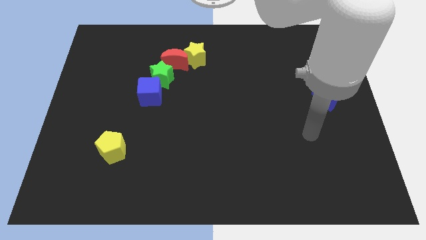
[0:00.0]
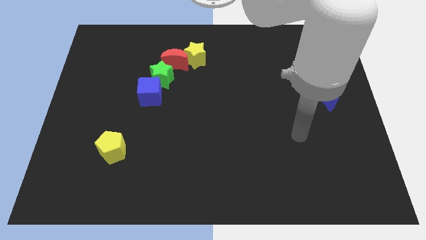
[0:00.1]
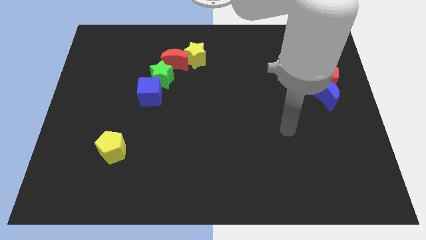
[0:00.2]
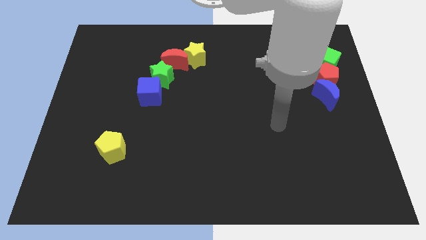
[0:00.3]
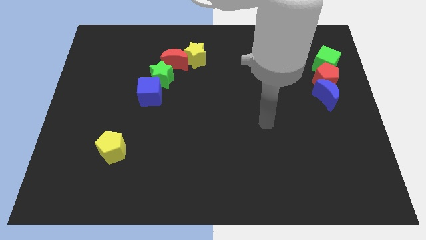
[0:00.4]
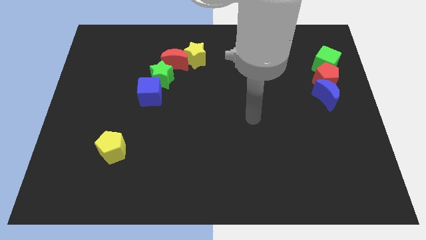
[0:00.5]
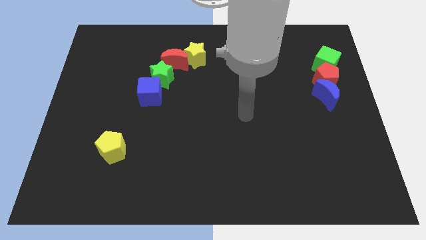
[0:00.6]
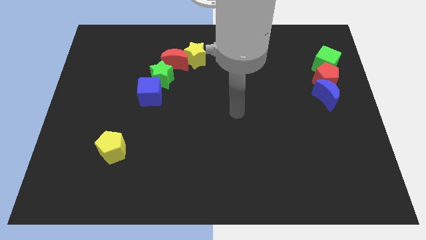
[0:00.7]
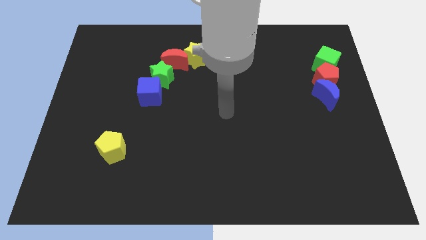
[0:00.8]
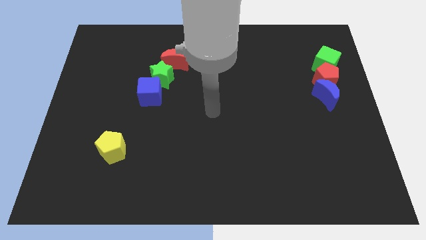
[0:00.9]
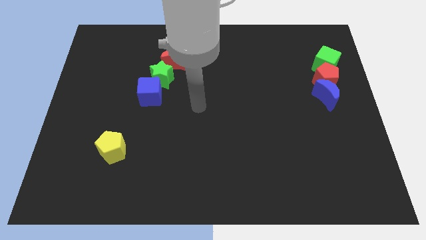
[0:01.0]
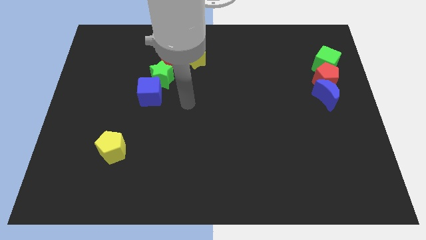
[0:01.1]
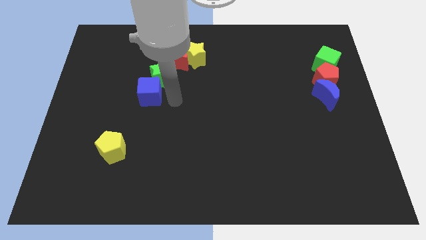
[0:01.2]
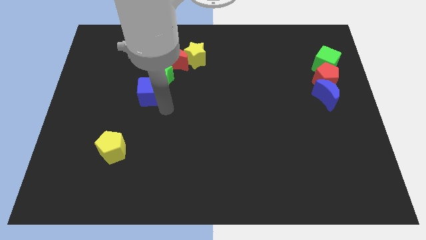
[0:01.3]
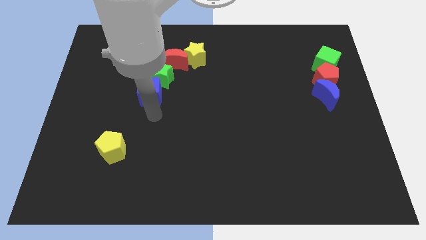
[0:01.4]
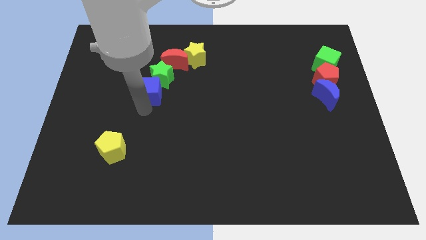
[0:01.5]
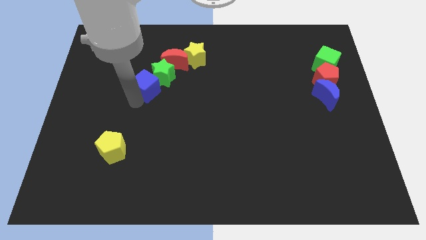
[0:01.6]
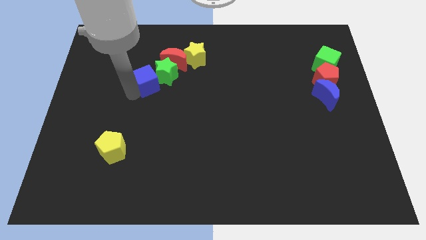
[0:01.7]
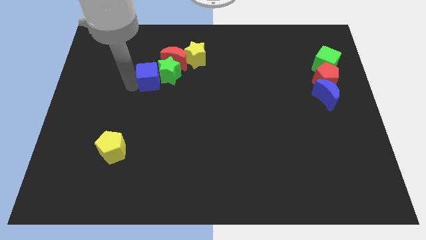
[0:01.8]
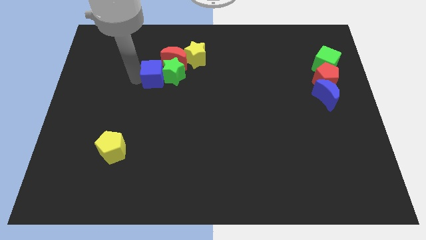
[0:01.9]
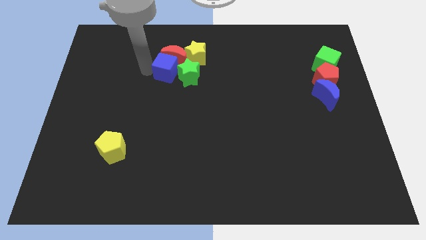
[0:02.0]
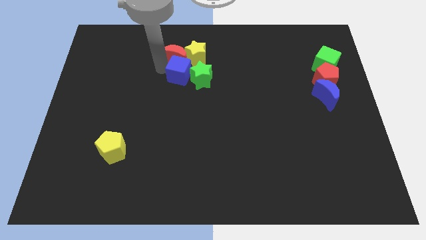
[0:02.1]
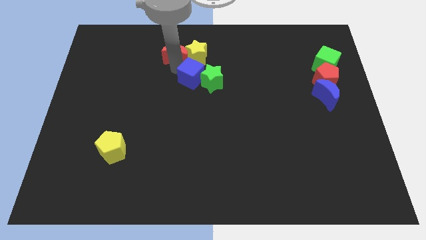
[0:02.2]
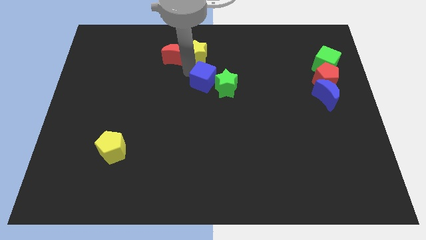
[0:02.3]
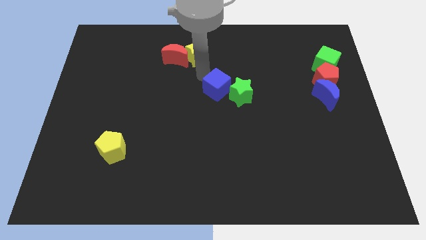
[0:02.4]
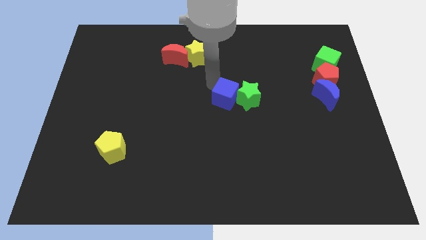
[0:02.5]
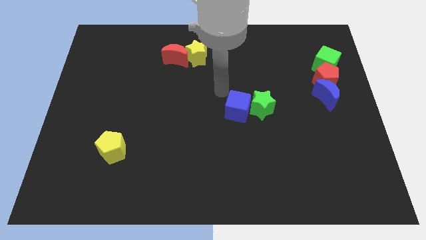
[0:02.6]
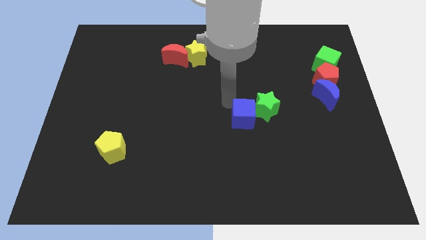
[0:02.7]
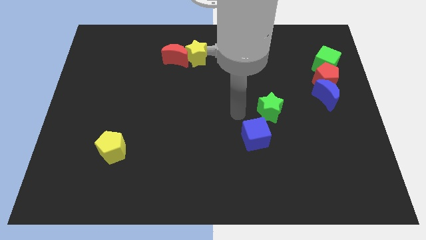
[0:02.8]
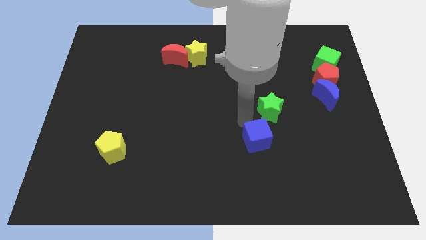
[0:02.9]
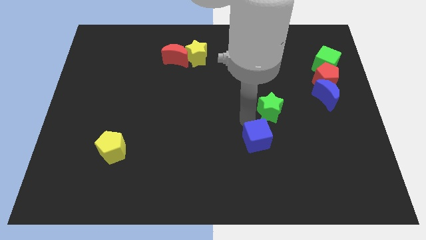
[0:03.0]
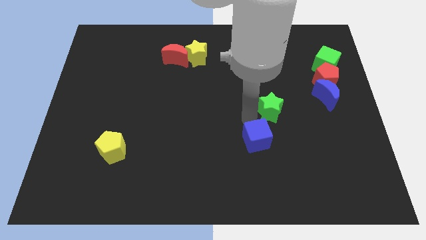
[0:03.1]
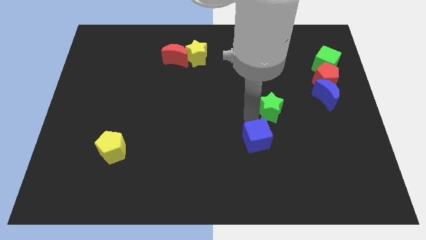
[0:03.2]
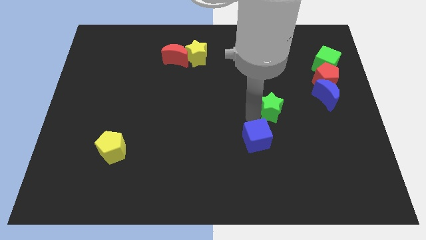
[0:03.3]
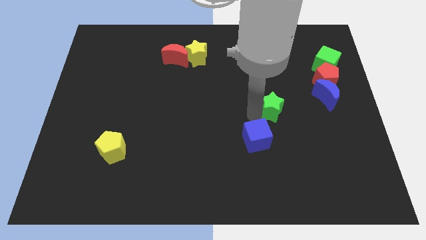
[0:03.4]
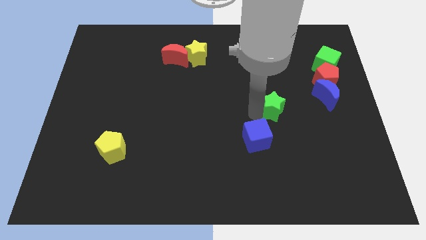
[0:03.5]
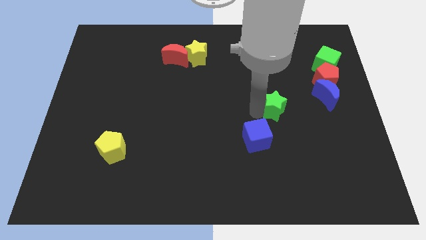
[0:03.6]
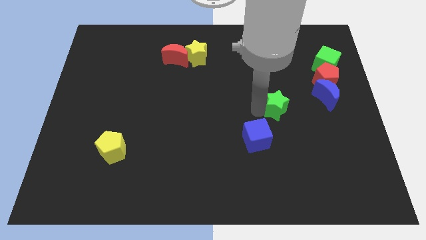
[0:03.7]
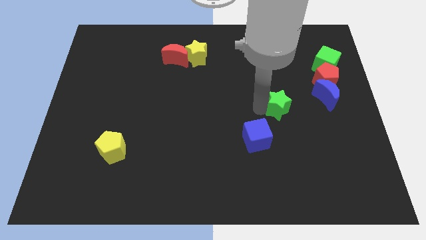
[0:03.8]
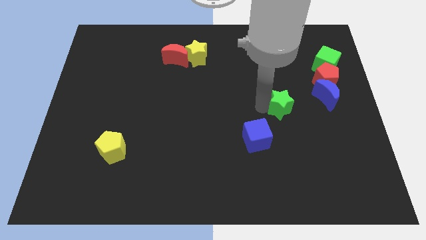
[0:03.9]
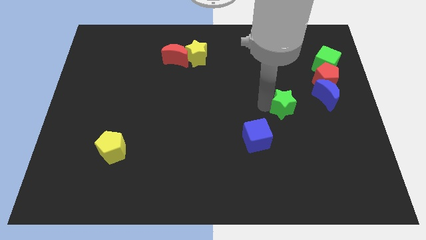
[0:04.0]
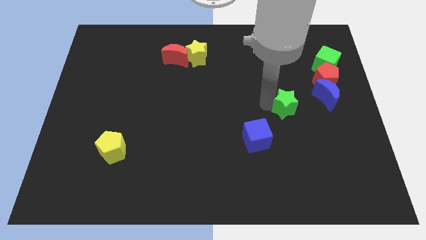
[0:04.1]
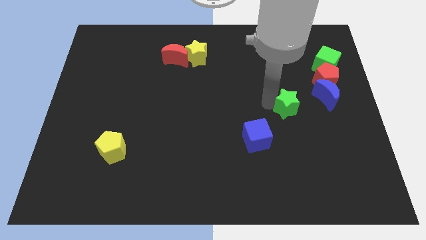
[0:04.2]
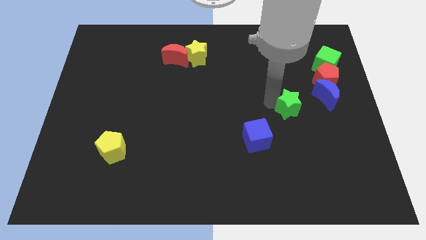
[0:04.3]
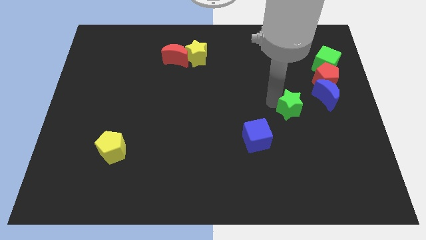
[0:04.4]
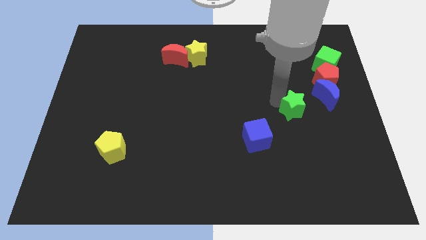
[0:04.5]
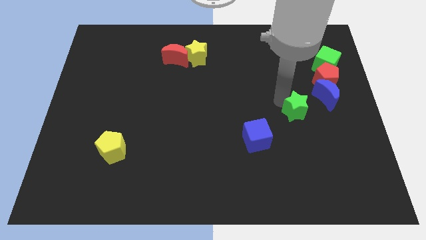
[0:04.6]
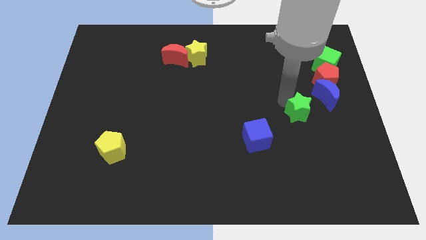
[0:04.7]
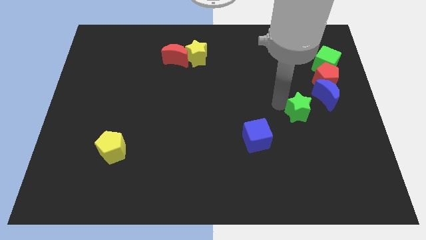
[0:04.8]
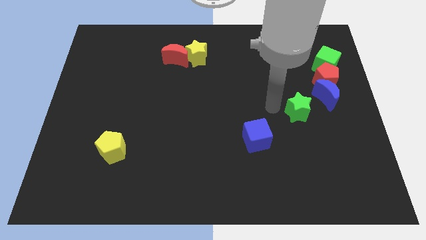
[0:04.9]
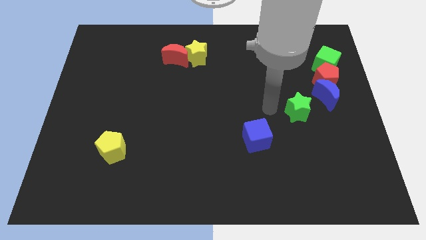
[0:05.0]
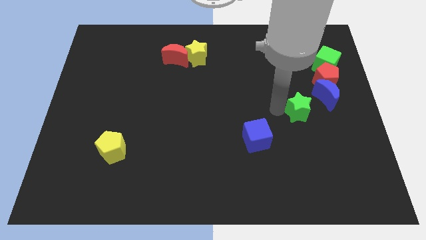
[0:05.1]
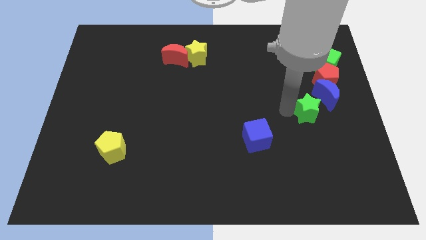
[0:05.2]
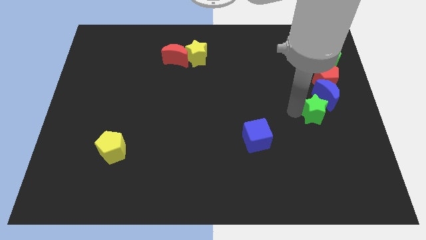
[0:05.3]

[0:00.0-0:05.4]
move the green star below the red pentagon

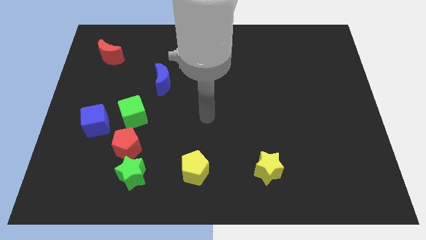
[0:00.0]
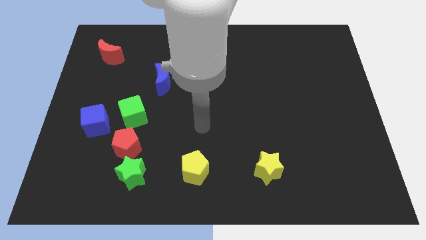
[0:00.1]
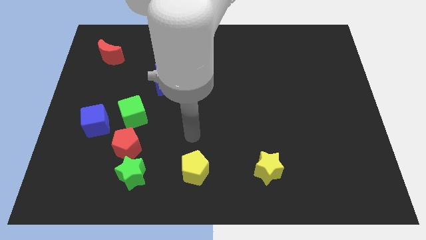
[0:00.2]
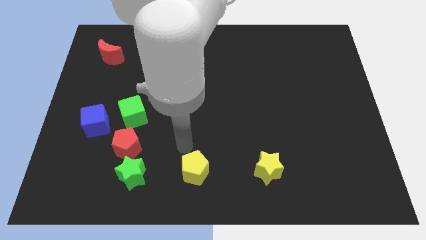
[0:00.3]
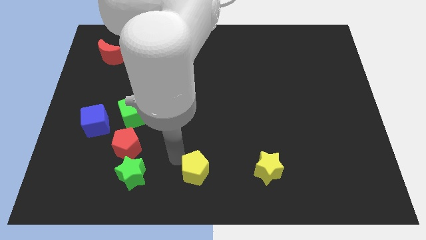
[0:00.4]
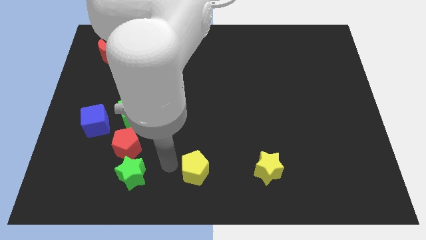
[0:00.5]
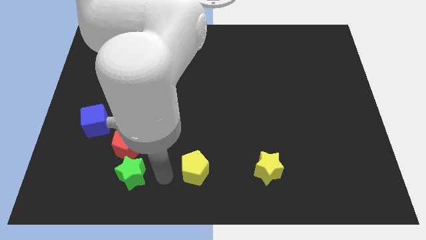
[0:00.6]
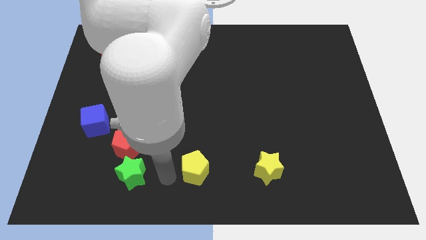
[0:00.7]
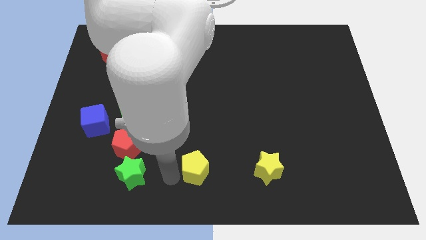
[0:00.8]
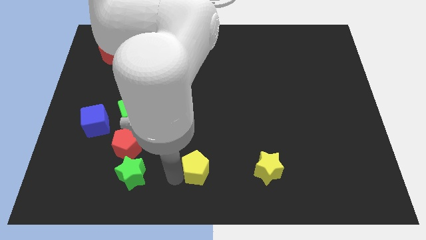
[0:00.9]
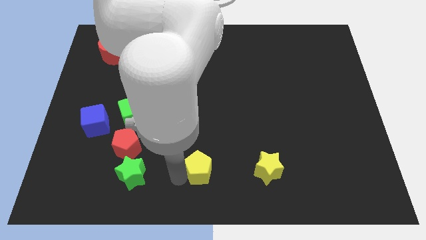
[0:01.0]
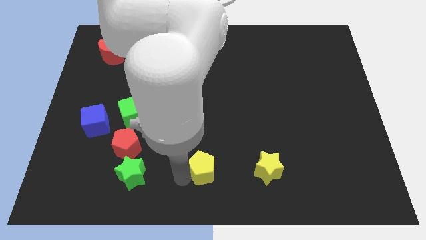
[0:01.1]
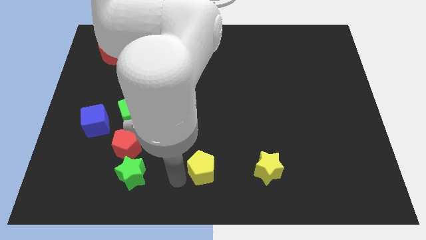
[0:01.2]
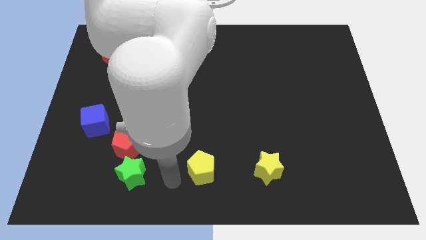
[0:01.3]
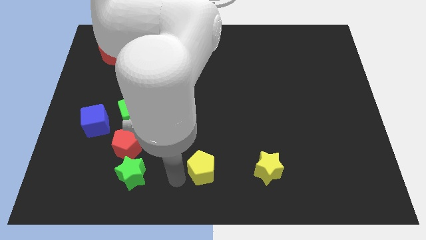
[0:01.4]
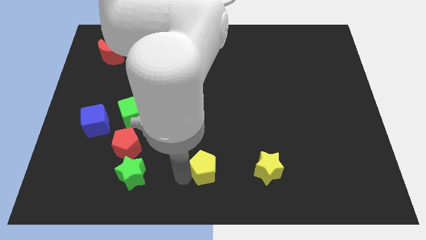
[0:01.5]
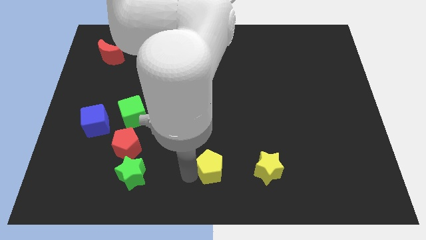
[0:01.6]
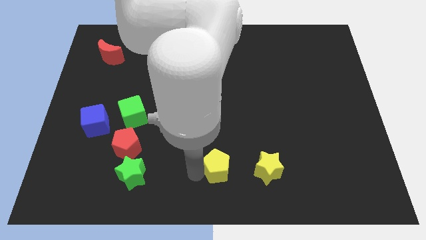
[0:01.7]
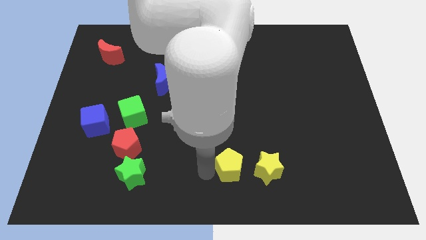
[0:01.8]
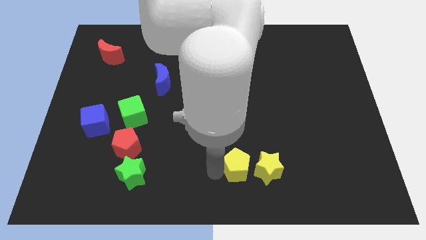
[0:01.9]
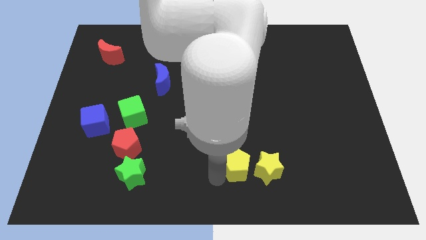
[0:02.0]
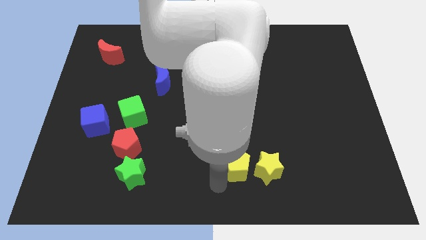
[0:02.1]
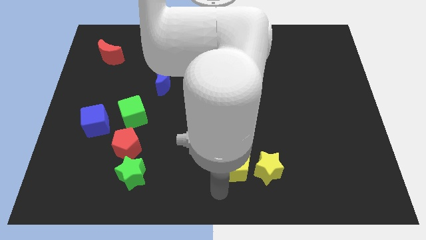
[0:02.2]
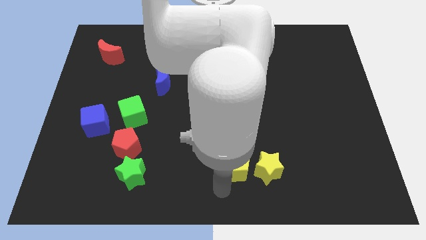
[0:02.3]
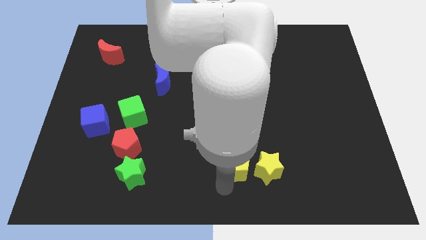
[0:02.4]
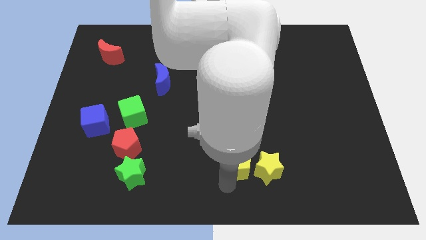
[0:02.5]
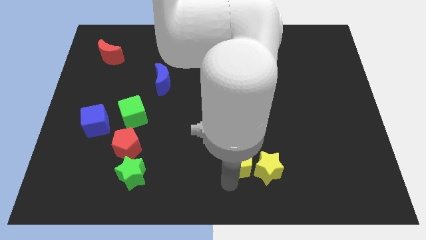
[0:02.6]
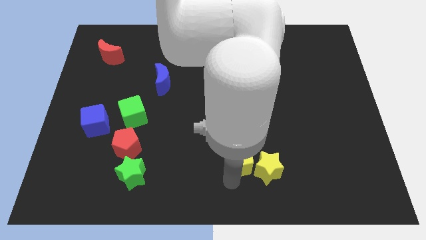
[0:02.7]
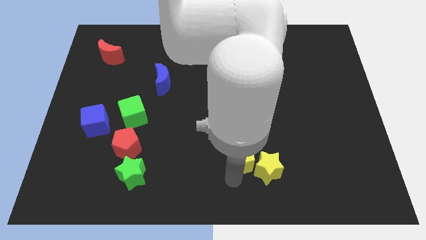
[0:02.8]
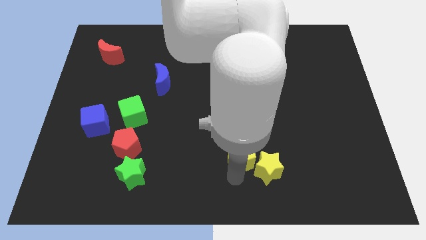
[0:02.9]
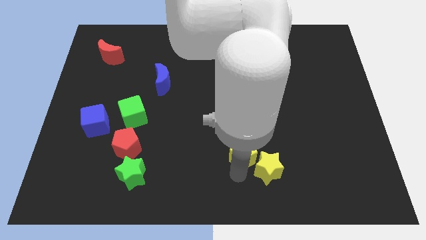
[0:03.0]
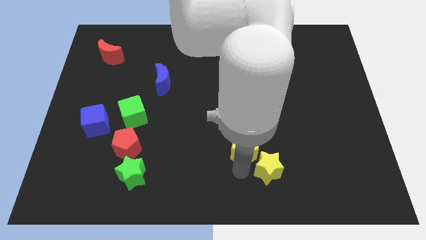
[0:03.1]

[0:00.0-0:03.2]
move the yellow pentagon to the top side of the yellow star
